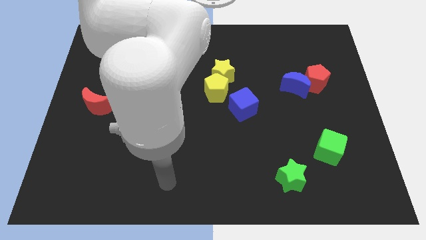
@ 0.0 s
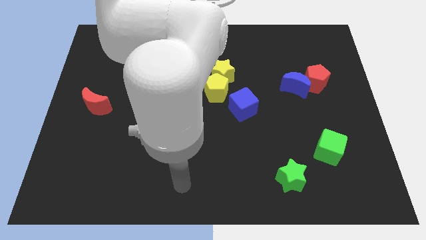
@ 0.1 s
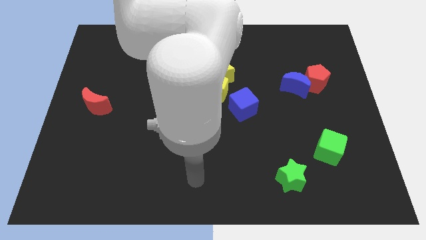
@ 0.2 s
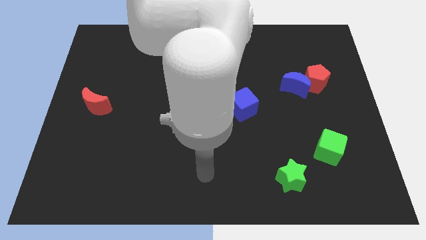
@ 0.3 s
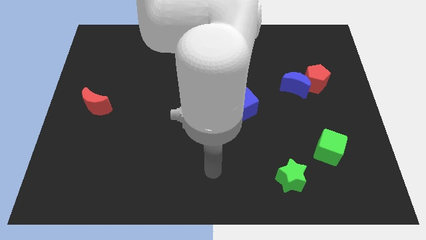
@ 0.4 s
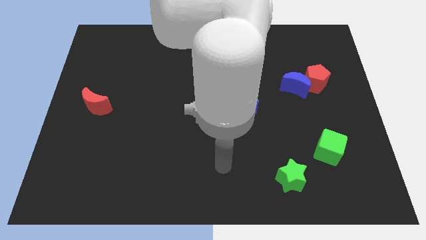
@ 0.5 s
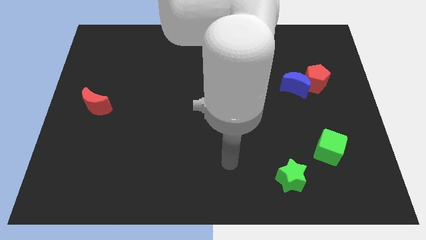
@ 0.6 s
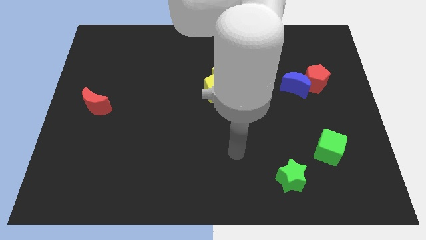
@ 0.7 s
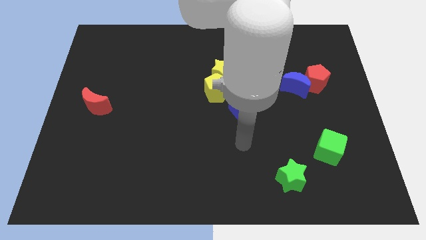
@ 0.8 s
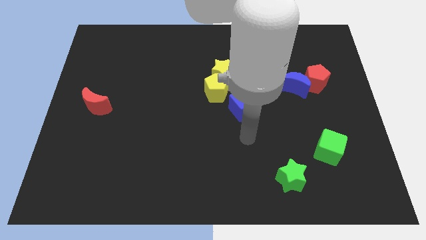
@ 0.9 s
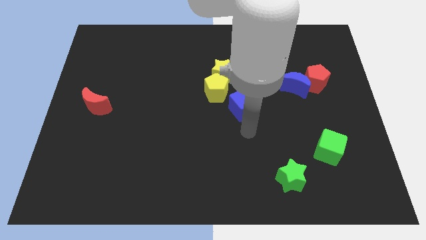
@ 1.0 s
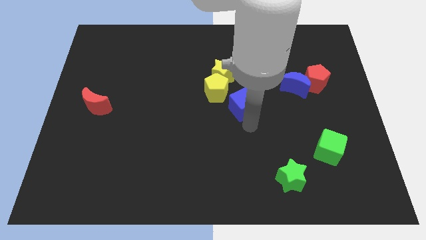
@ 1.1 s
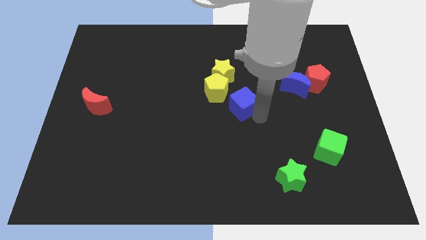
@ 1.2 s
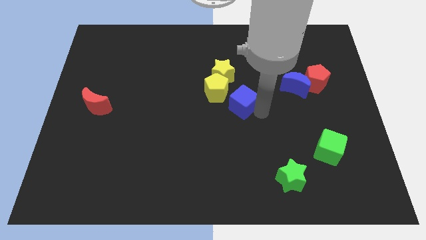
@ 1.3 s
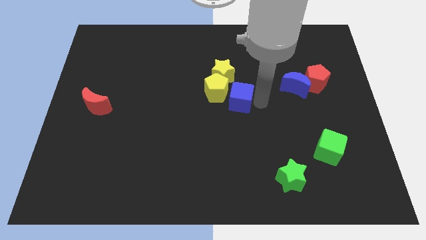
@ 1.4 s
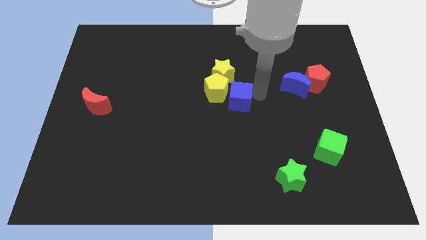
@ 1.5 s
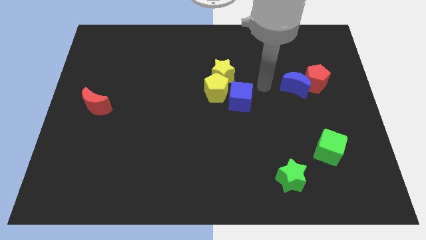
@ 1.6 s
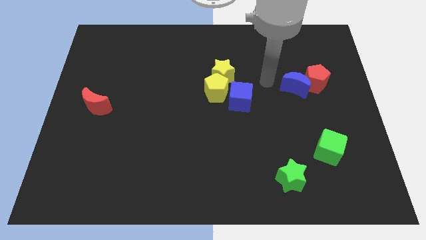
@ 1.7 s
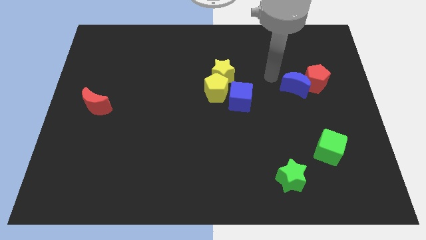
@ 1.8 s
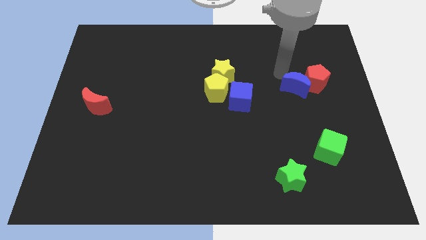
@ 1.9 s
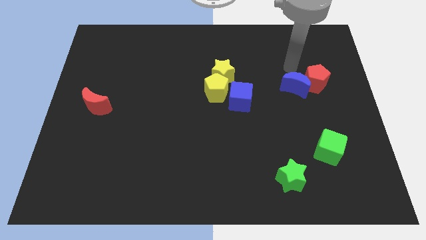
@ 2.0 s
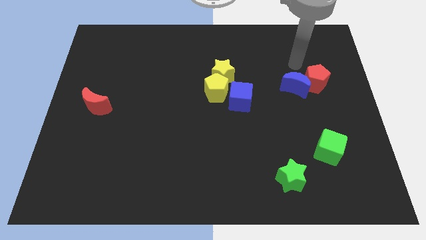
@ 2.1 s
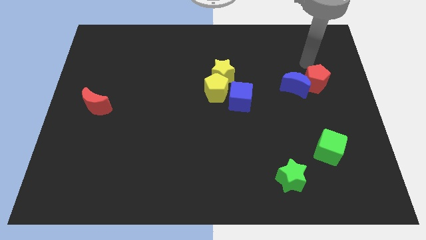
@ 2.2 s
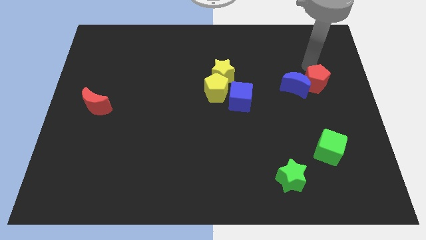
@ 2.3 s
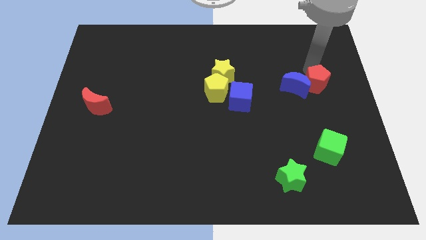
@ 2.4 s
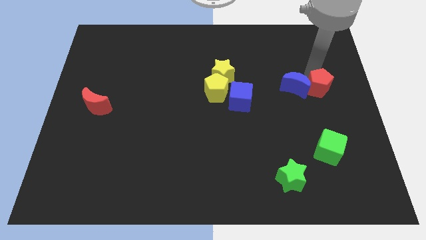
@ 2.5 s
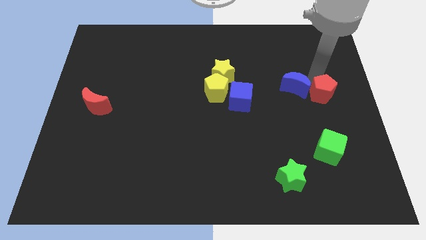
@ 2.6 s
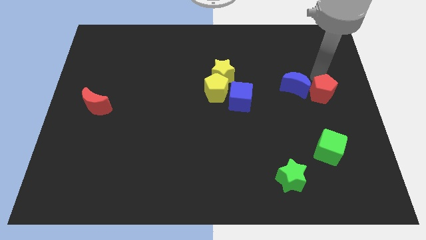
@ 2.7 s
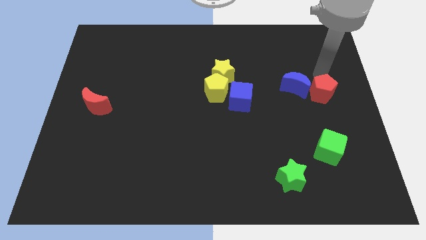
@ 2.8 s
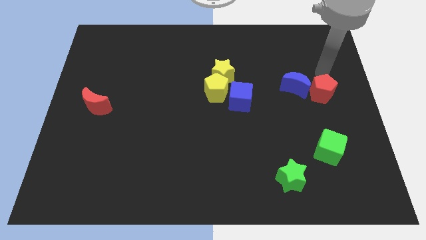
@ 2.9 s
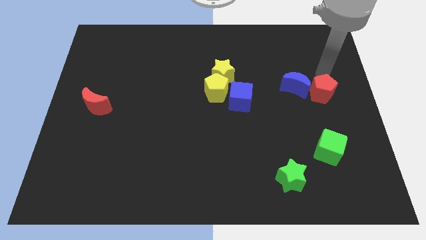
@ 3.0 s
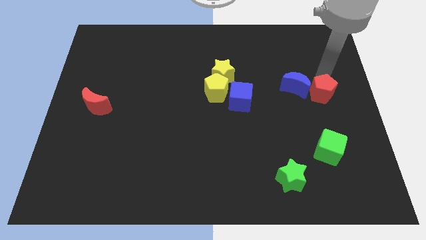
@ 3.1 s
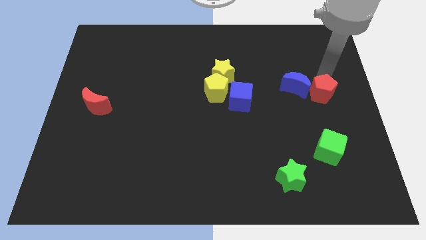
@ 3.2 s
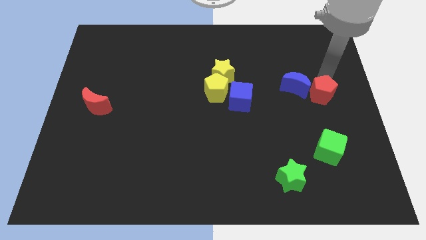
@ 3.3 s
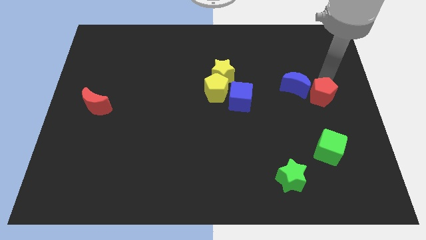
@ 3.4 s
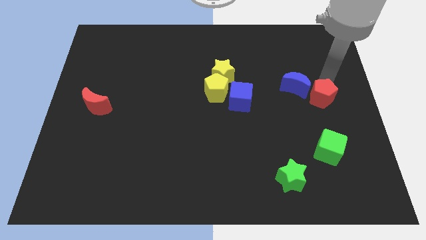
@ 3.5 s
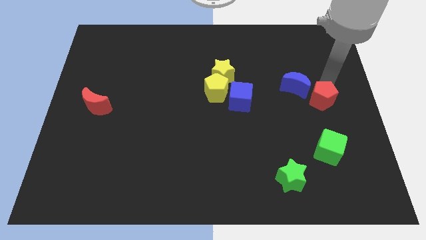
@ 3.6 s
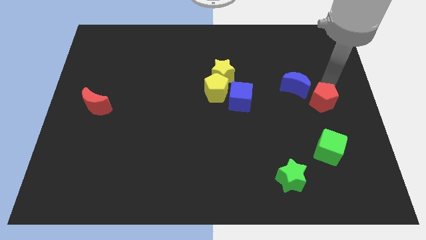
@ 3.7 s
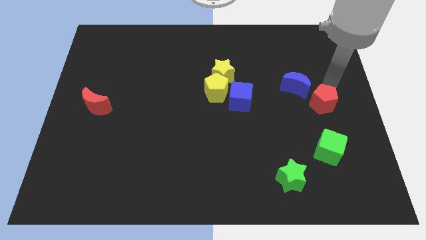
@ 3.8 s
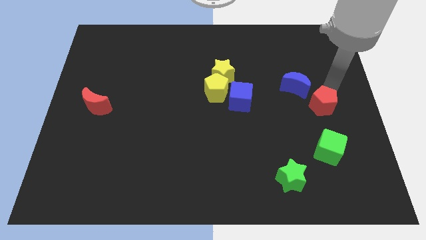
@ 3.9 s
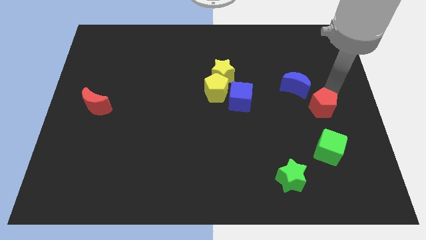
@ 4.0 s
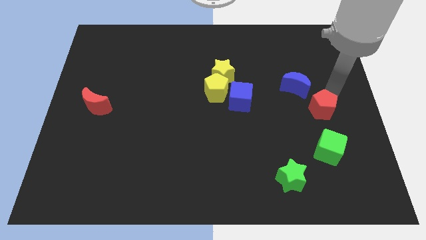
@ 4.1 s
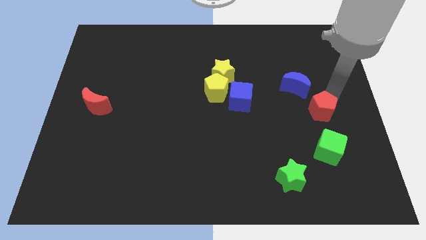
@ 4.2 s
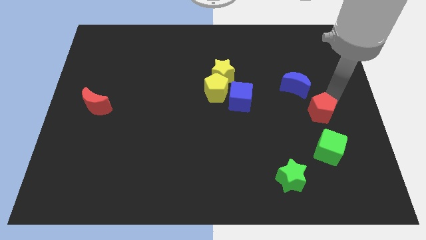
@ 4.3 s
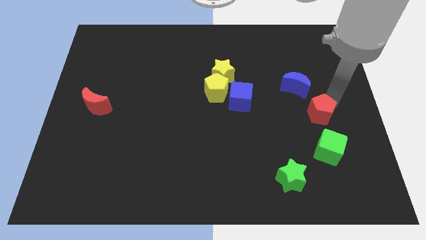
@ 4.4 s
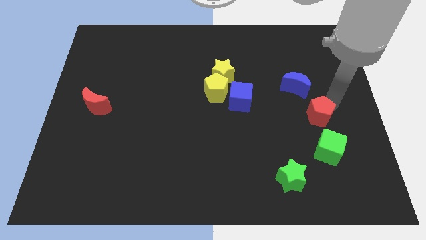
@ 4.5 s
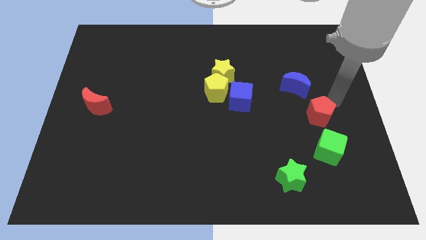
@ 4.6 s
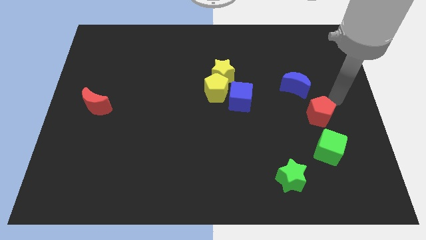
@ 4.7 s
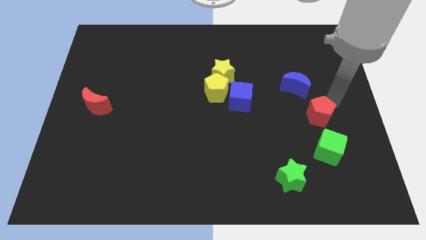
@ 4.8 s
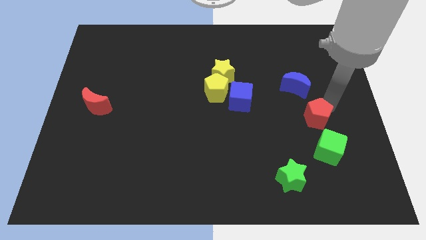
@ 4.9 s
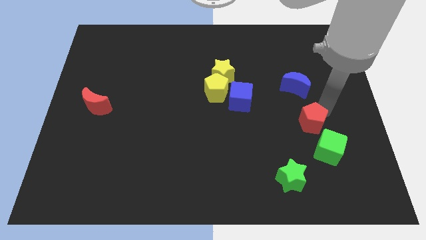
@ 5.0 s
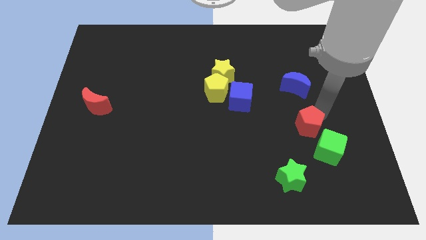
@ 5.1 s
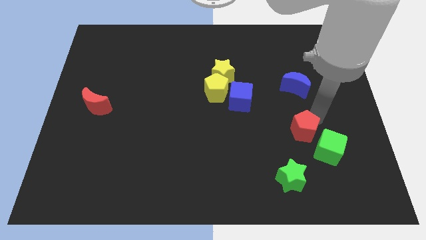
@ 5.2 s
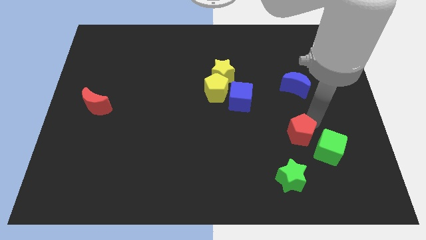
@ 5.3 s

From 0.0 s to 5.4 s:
put the red pentagon just left of the green cube

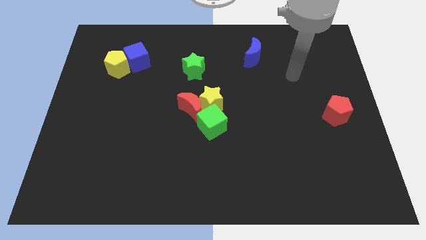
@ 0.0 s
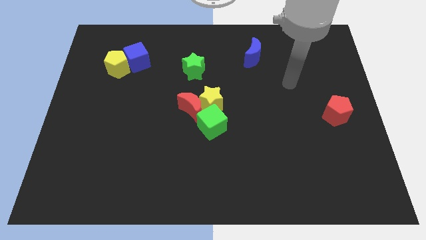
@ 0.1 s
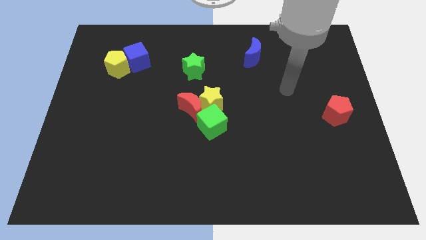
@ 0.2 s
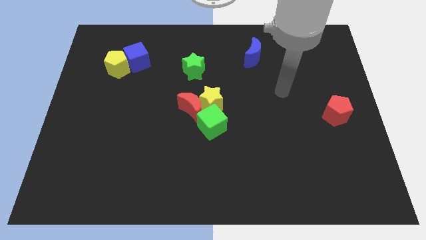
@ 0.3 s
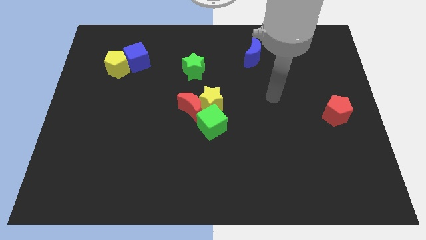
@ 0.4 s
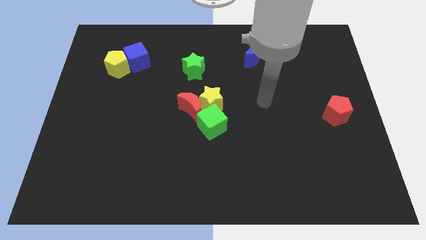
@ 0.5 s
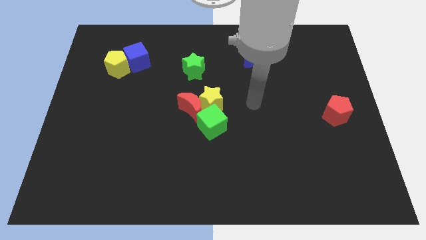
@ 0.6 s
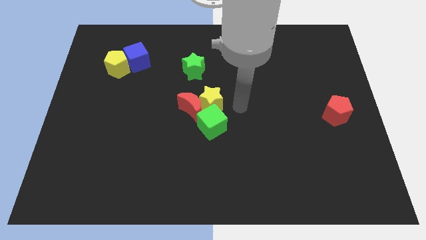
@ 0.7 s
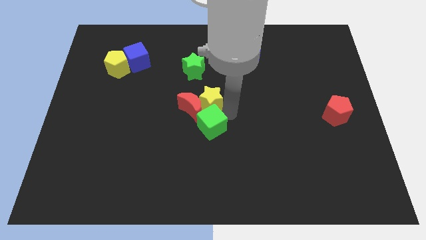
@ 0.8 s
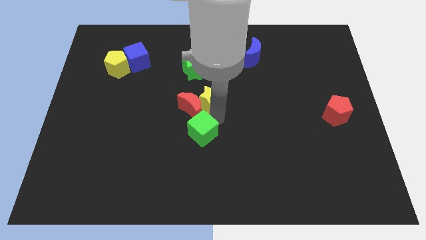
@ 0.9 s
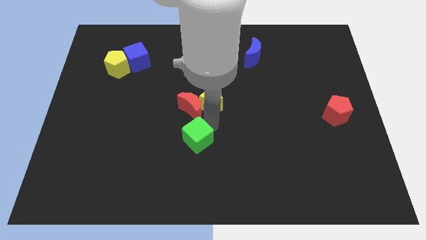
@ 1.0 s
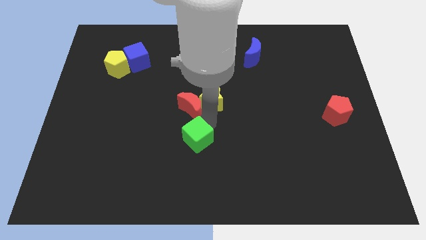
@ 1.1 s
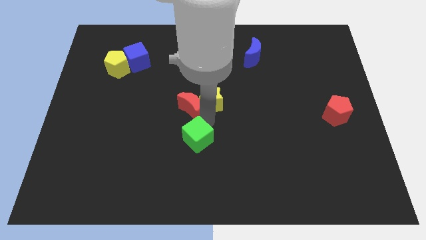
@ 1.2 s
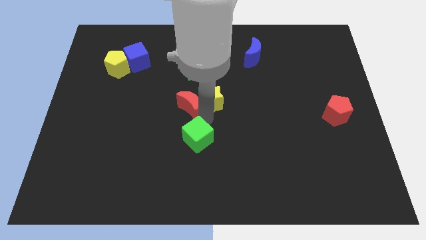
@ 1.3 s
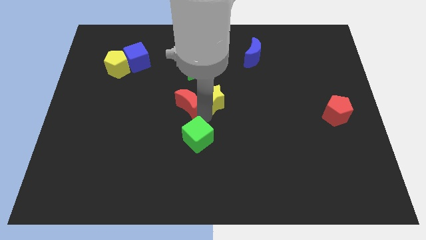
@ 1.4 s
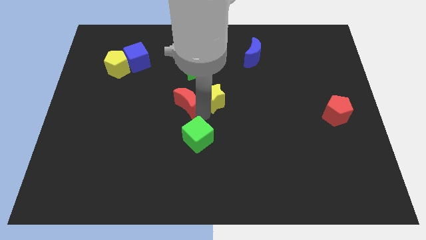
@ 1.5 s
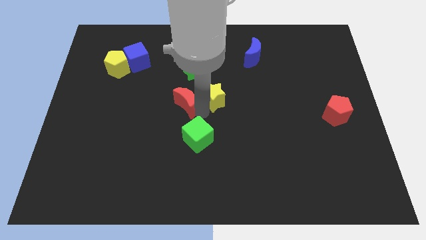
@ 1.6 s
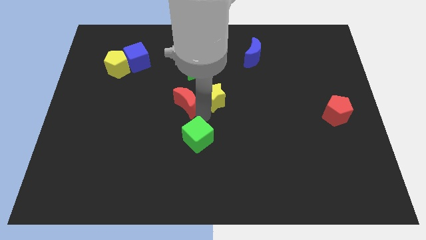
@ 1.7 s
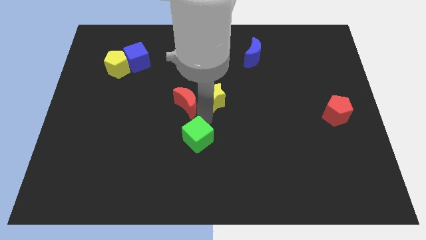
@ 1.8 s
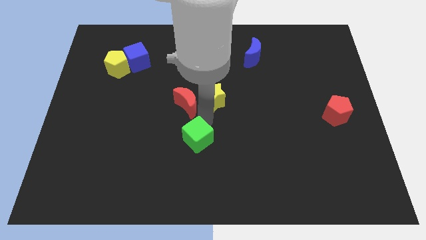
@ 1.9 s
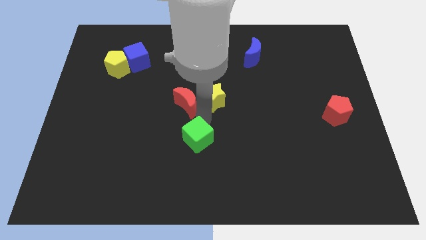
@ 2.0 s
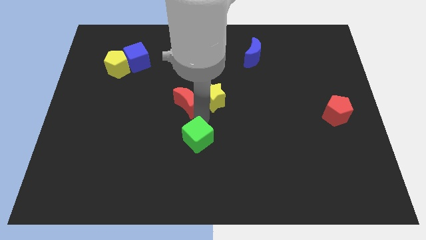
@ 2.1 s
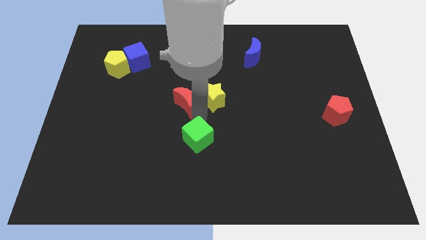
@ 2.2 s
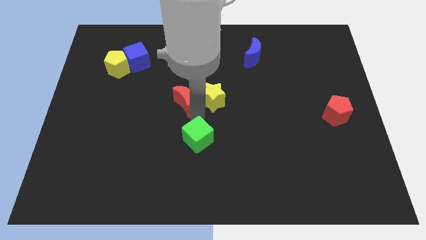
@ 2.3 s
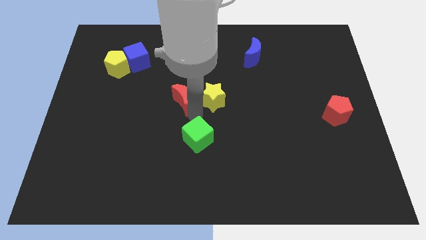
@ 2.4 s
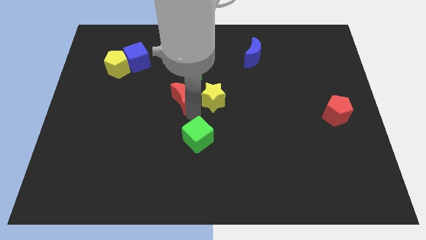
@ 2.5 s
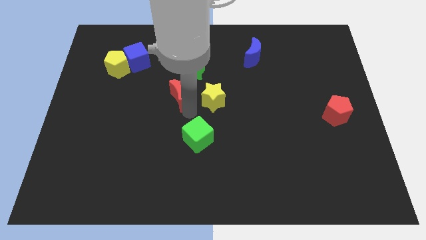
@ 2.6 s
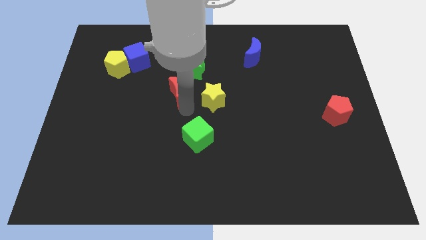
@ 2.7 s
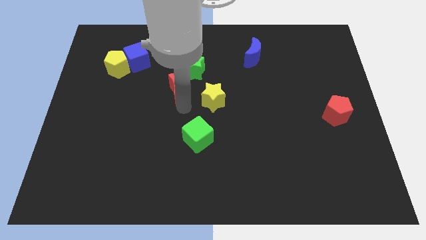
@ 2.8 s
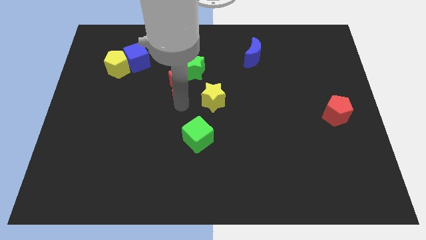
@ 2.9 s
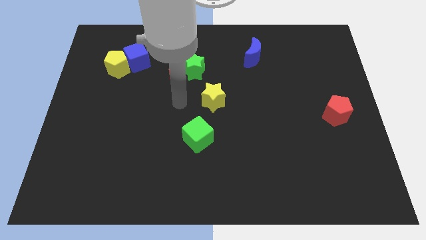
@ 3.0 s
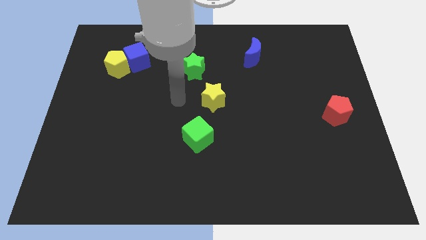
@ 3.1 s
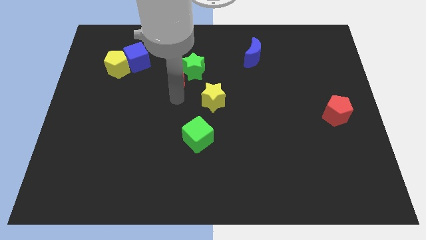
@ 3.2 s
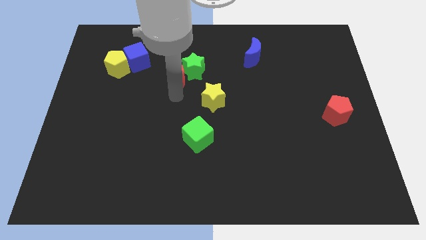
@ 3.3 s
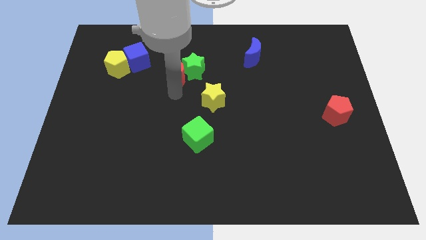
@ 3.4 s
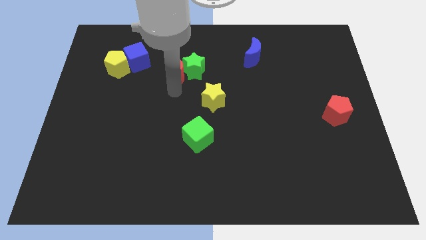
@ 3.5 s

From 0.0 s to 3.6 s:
put the red moon to the bottom right of the blue cube
